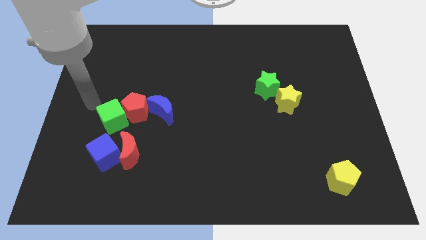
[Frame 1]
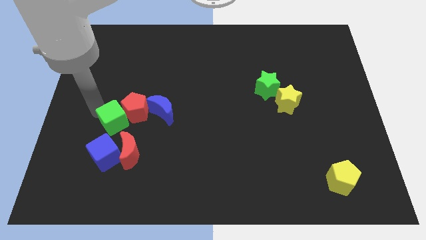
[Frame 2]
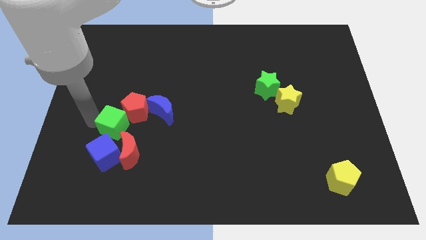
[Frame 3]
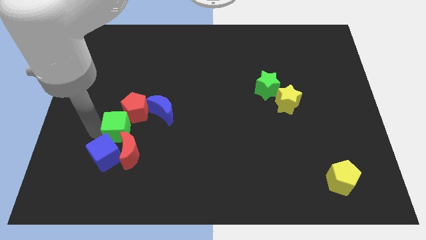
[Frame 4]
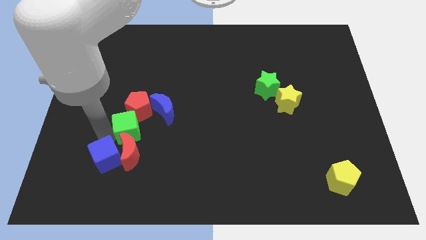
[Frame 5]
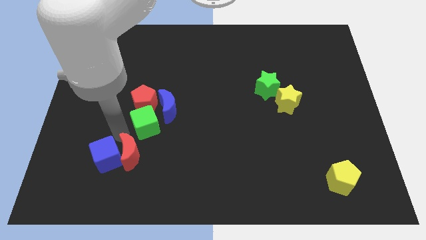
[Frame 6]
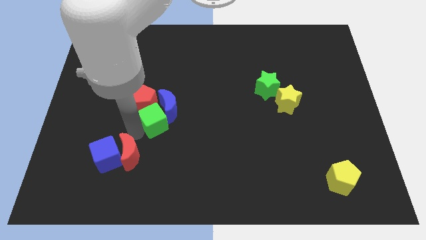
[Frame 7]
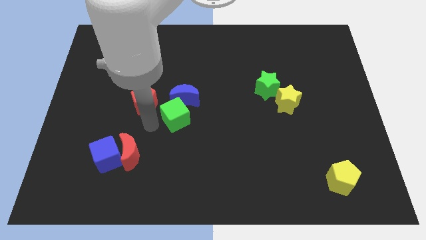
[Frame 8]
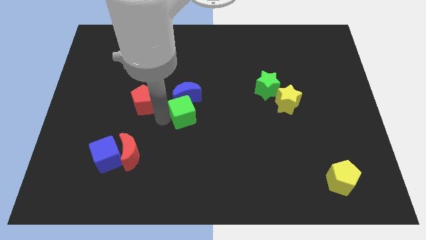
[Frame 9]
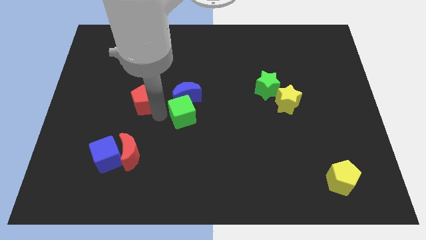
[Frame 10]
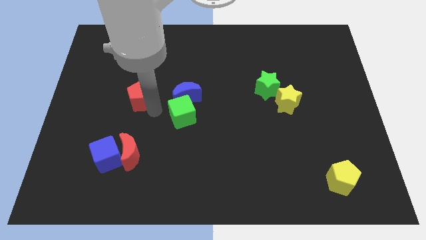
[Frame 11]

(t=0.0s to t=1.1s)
pull the red pentagon apart from the green cube and blue moon

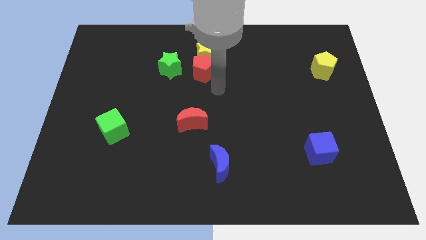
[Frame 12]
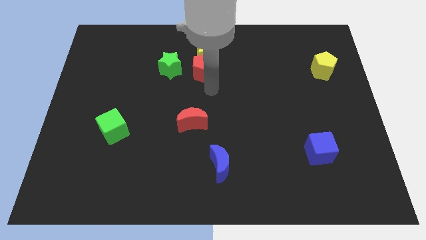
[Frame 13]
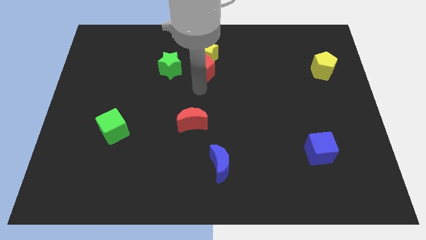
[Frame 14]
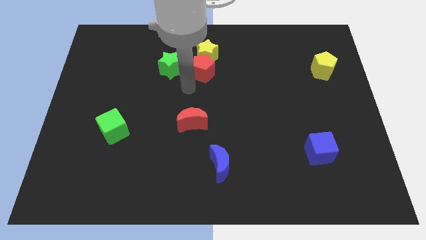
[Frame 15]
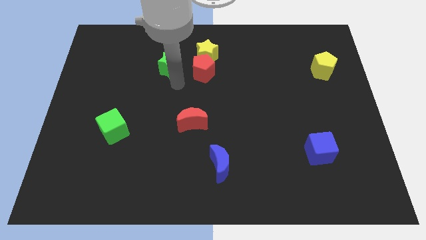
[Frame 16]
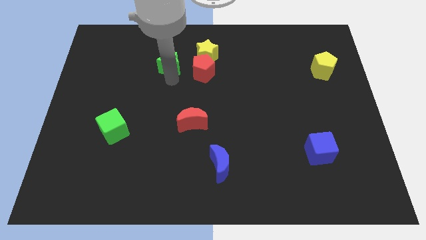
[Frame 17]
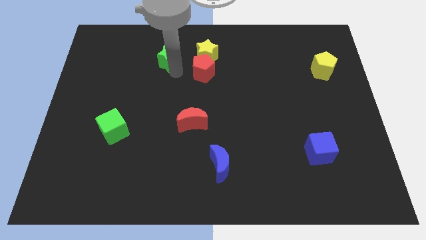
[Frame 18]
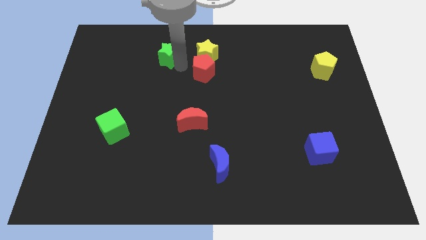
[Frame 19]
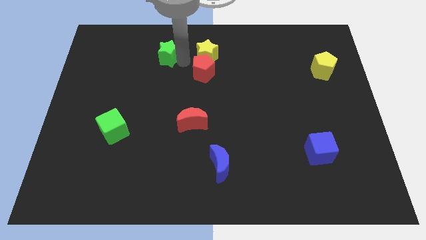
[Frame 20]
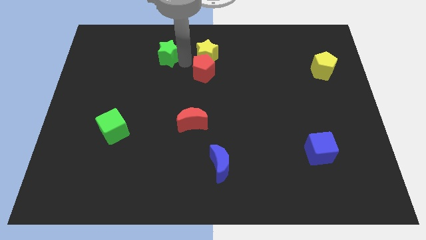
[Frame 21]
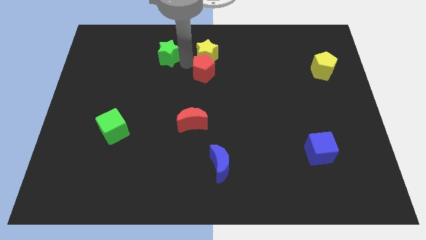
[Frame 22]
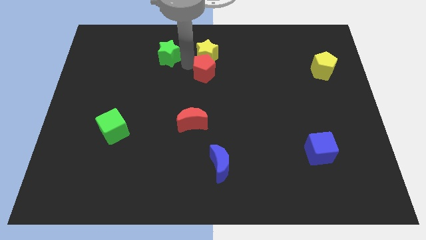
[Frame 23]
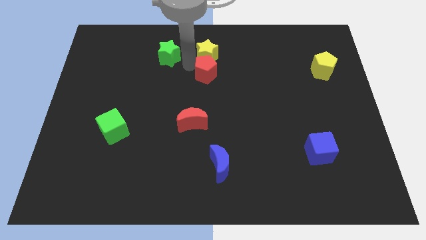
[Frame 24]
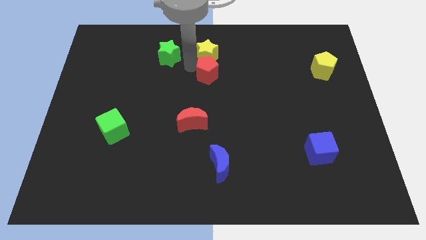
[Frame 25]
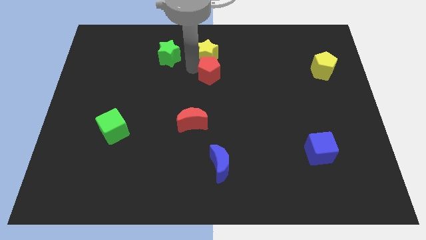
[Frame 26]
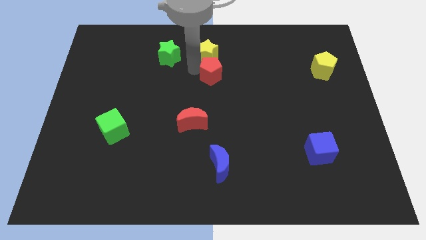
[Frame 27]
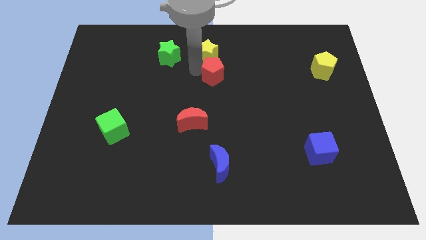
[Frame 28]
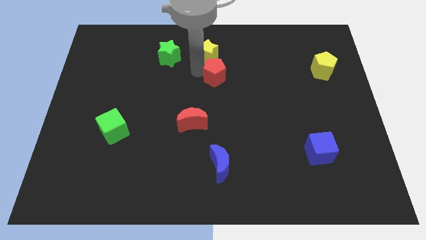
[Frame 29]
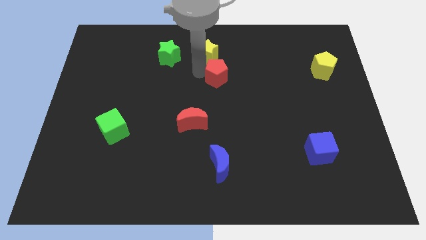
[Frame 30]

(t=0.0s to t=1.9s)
separate the red pentagon from the yellow star and green star

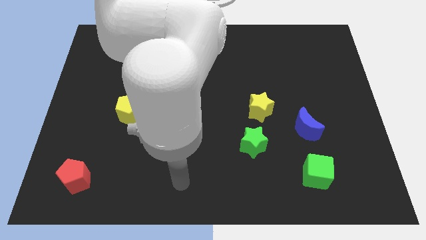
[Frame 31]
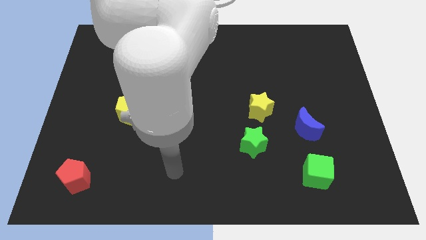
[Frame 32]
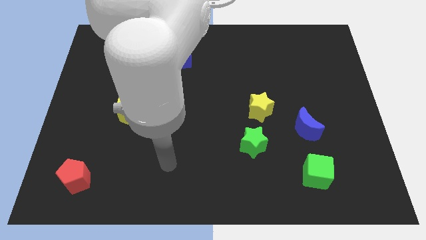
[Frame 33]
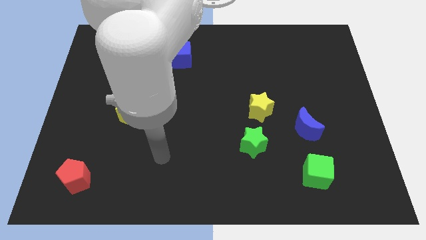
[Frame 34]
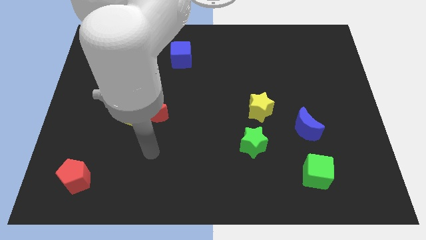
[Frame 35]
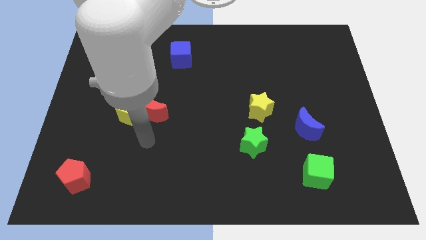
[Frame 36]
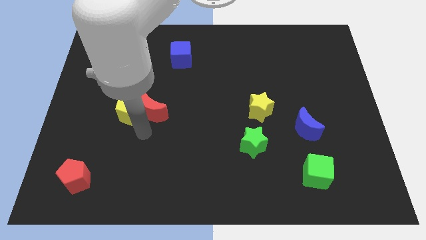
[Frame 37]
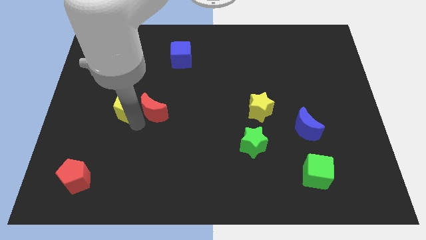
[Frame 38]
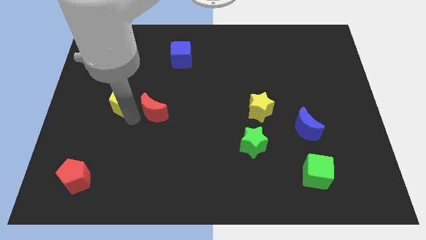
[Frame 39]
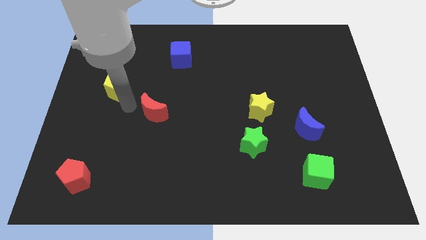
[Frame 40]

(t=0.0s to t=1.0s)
separate the red moon from the yellow pentagon

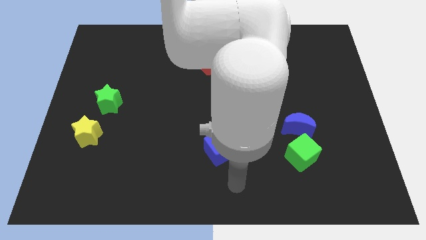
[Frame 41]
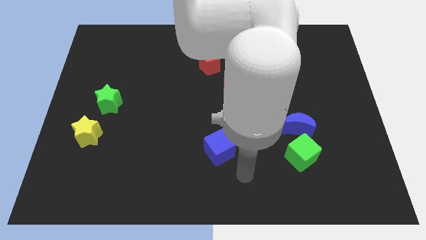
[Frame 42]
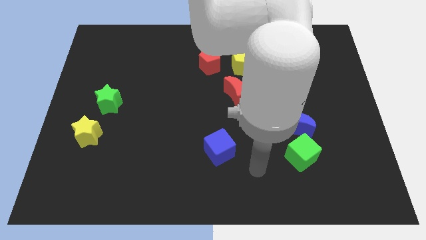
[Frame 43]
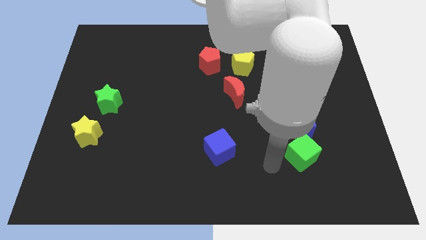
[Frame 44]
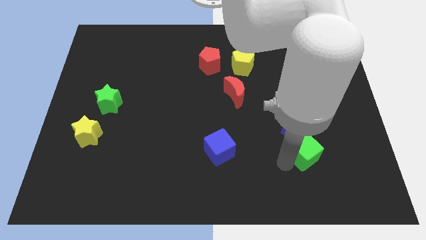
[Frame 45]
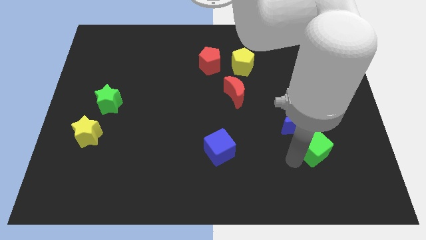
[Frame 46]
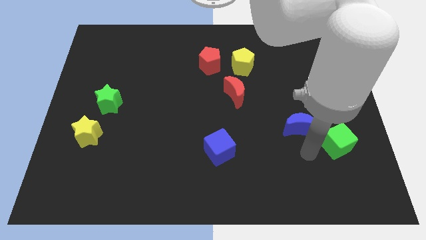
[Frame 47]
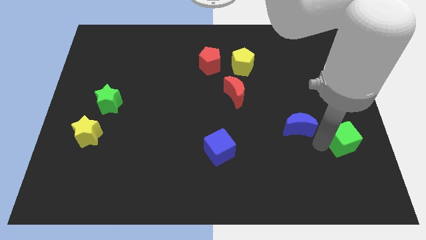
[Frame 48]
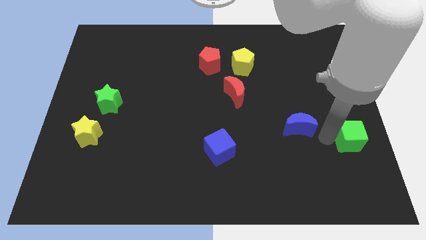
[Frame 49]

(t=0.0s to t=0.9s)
pull the blue moon apart from the green cube

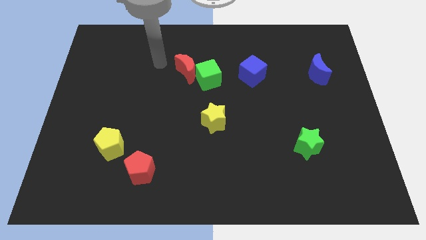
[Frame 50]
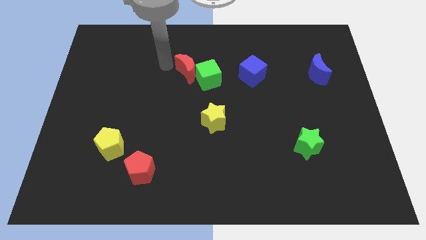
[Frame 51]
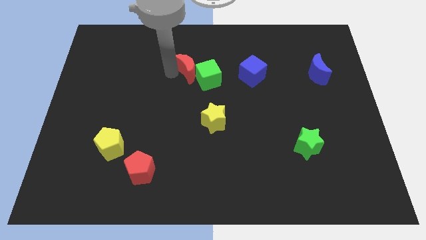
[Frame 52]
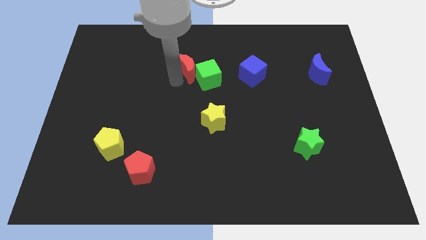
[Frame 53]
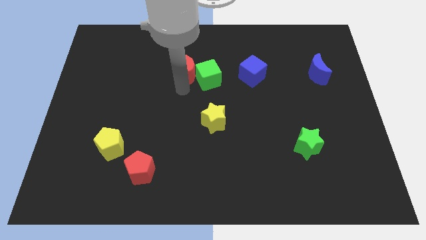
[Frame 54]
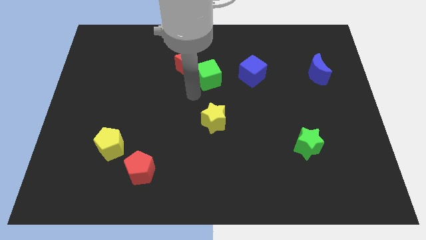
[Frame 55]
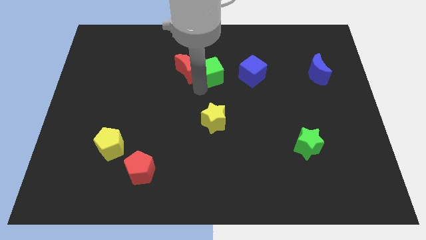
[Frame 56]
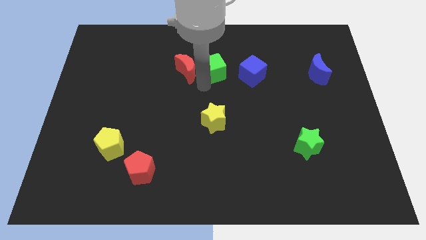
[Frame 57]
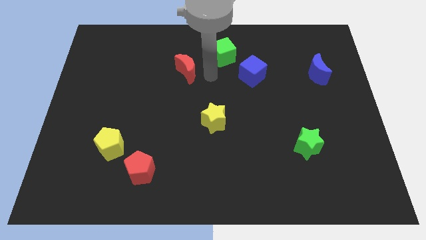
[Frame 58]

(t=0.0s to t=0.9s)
pull the red moon apart from the green cube

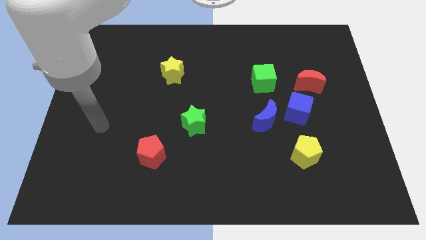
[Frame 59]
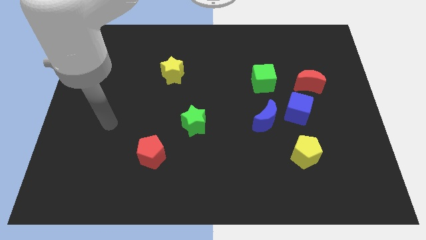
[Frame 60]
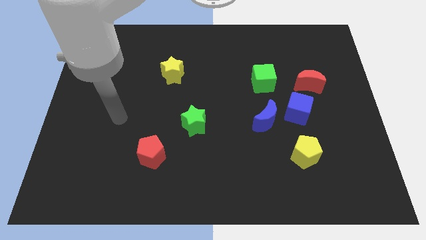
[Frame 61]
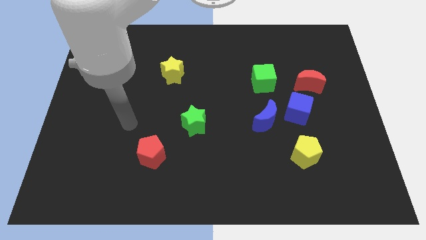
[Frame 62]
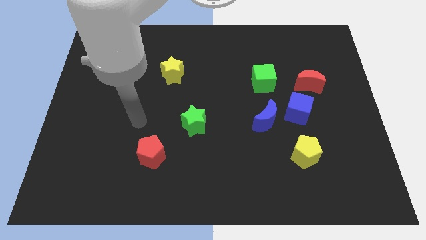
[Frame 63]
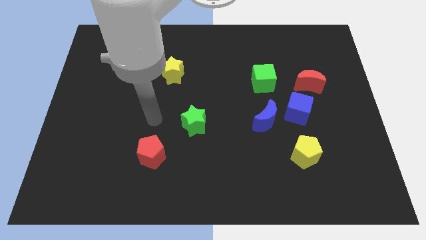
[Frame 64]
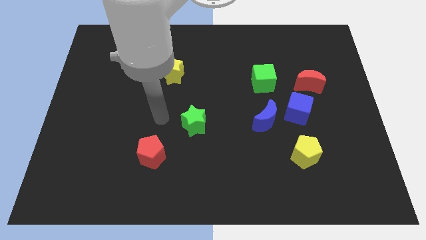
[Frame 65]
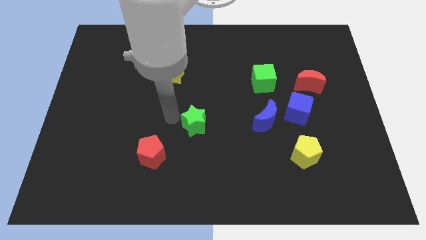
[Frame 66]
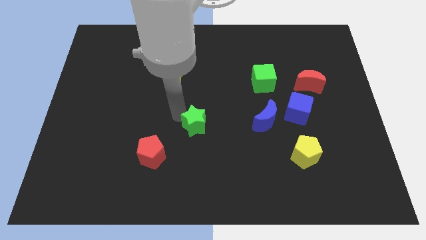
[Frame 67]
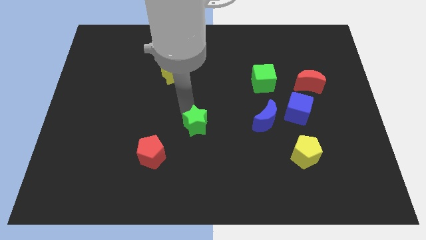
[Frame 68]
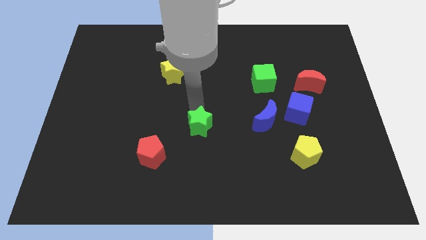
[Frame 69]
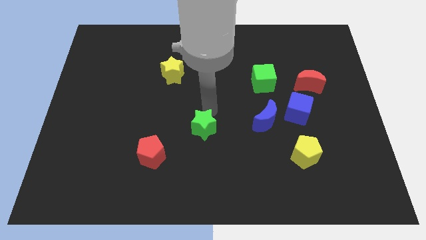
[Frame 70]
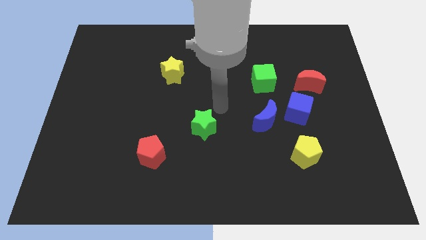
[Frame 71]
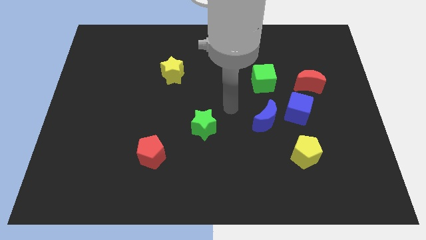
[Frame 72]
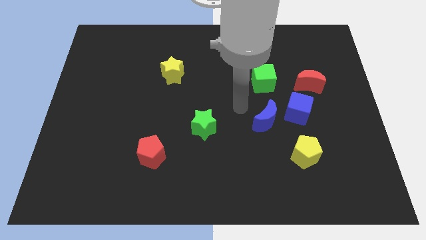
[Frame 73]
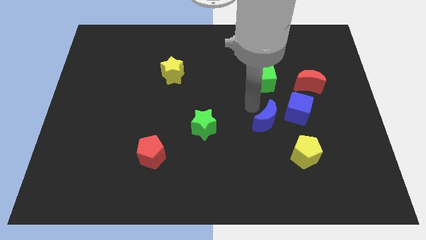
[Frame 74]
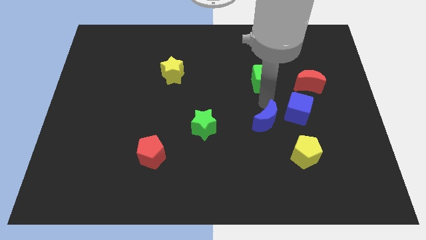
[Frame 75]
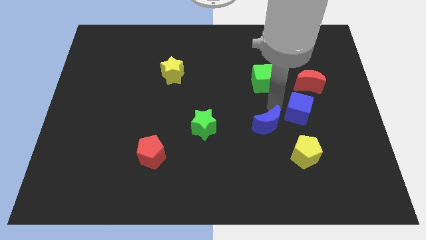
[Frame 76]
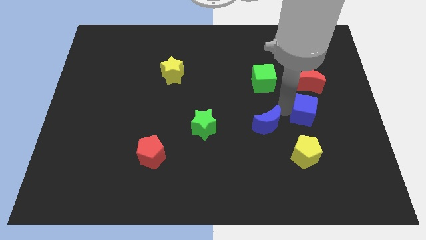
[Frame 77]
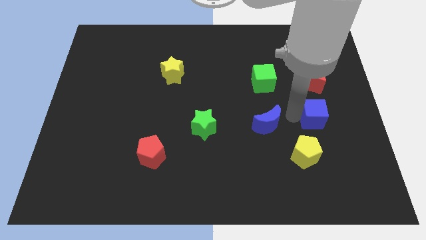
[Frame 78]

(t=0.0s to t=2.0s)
pull the blue moon apart from the blue cube

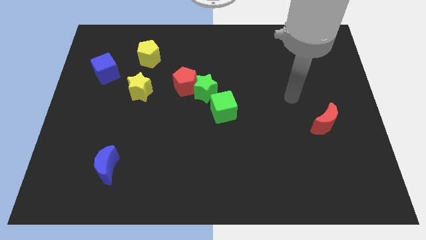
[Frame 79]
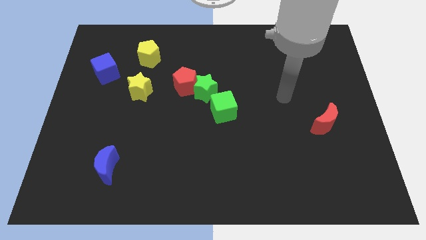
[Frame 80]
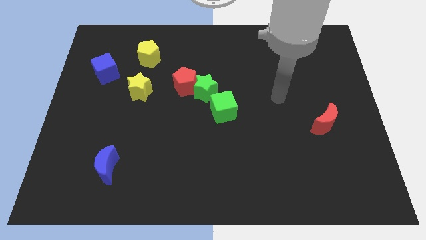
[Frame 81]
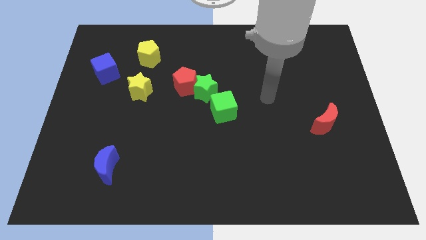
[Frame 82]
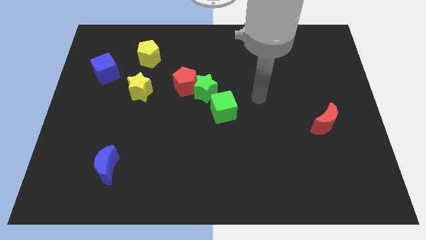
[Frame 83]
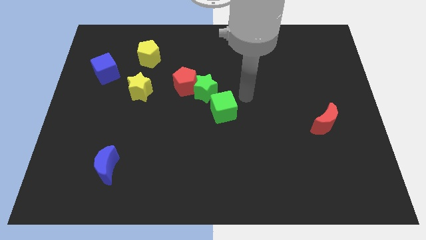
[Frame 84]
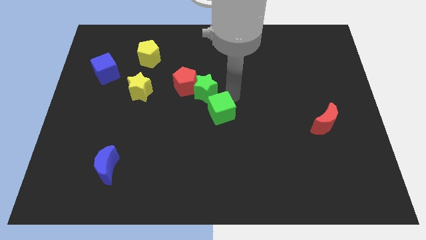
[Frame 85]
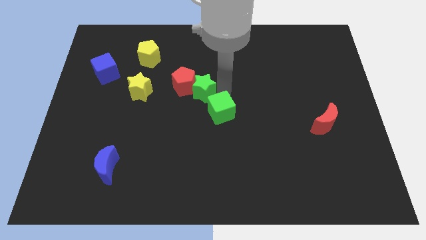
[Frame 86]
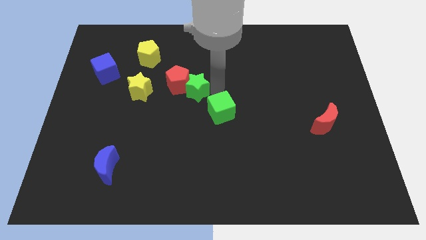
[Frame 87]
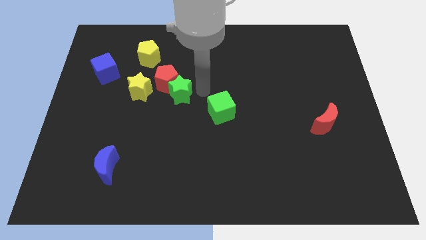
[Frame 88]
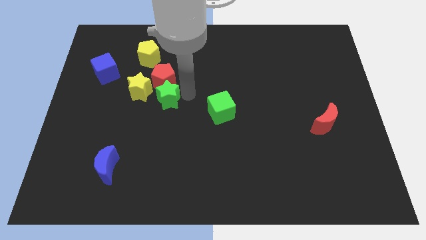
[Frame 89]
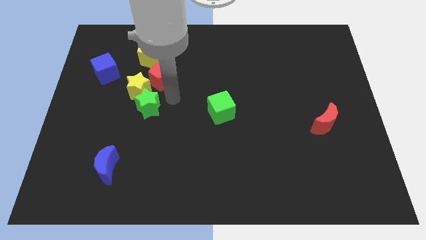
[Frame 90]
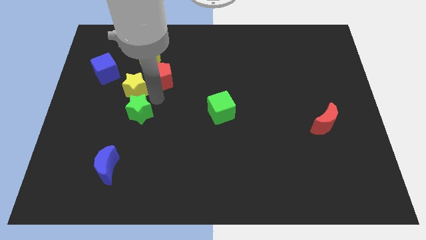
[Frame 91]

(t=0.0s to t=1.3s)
pull the red pentagon apart from the green star
